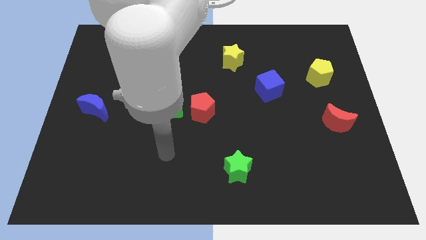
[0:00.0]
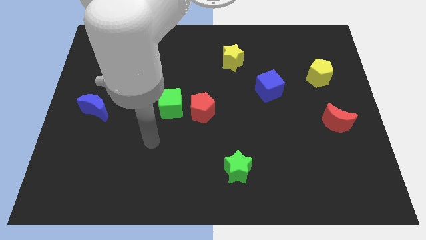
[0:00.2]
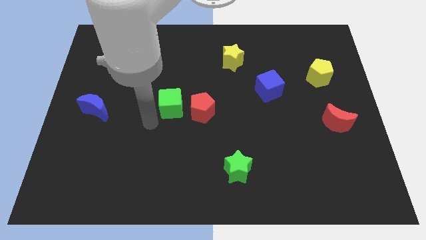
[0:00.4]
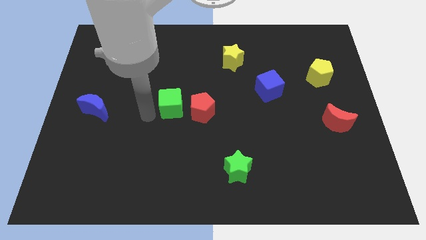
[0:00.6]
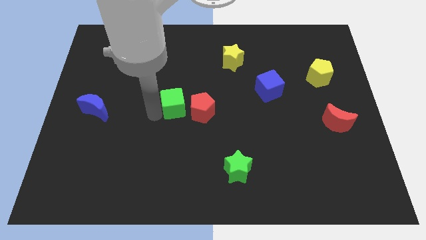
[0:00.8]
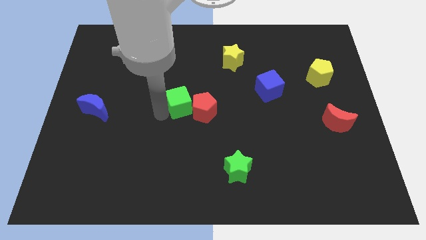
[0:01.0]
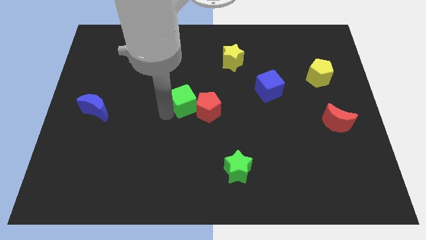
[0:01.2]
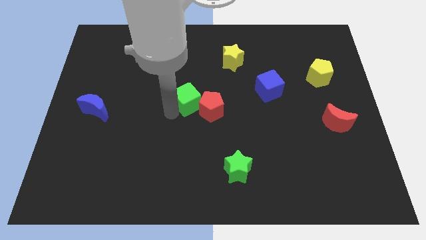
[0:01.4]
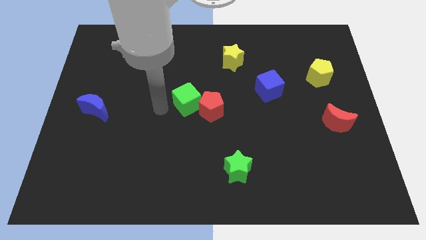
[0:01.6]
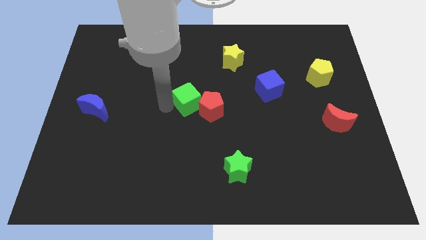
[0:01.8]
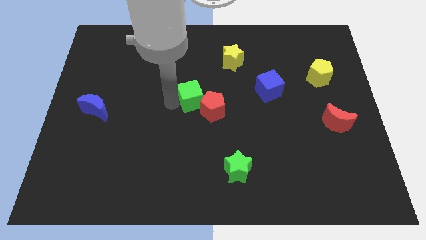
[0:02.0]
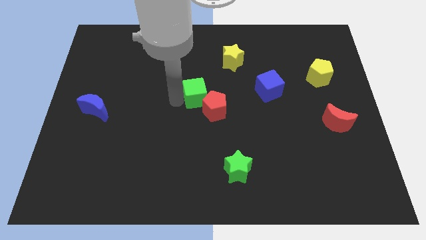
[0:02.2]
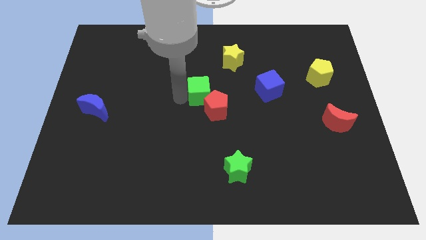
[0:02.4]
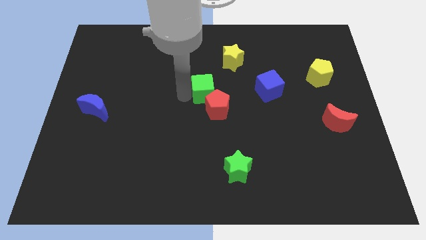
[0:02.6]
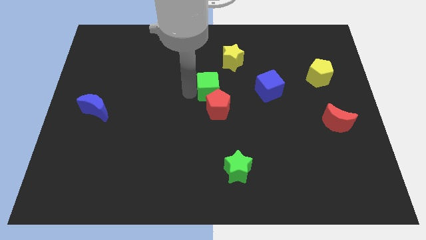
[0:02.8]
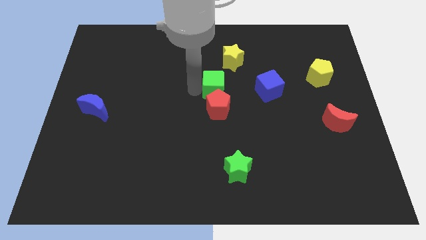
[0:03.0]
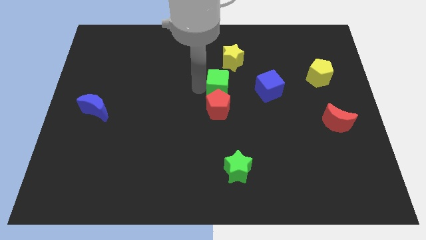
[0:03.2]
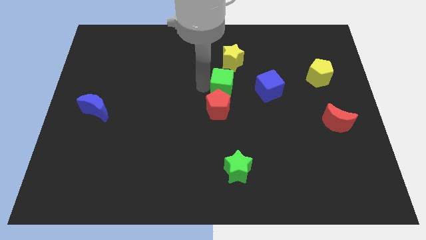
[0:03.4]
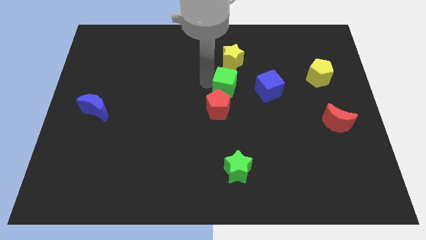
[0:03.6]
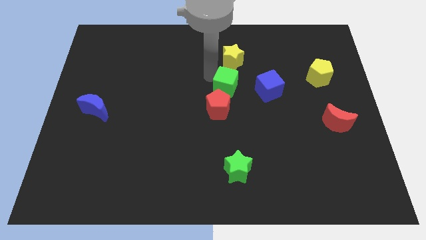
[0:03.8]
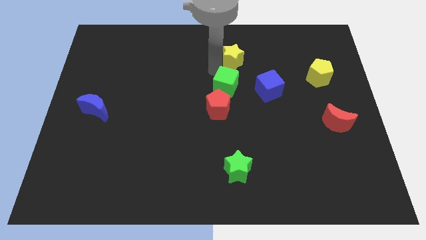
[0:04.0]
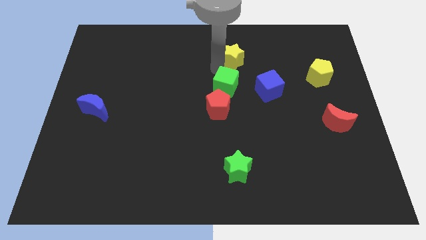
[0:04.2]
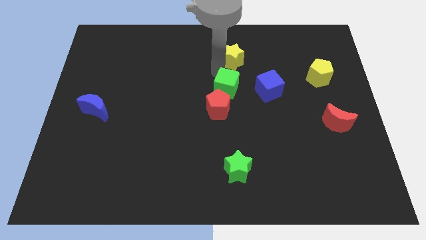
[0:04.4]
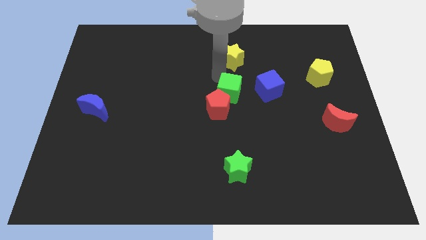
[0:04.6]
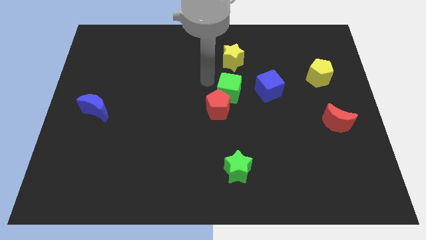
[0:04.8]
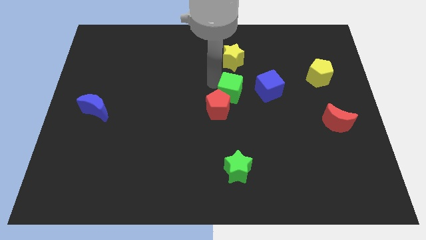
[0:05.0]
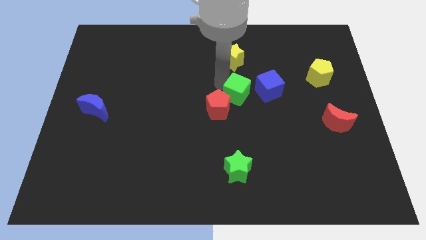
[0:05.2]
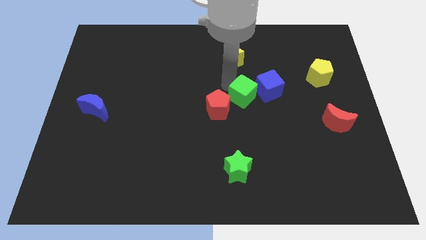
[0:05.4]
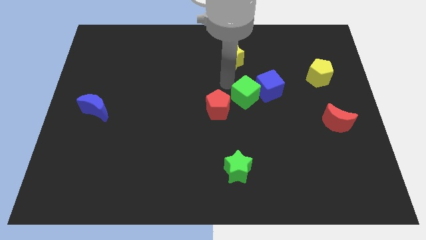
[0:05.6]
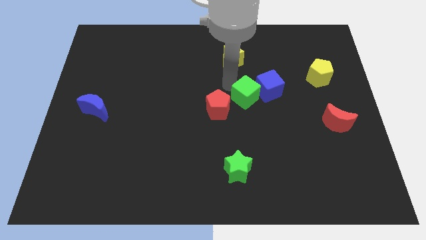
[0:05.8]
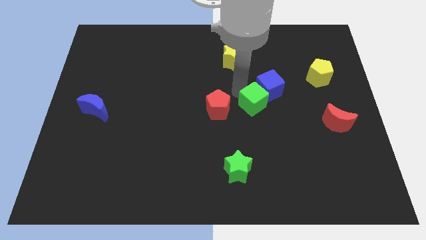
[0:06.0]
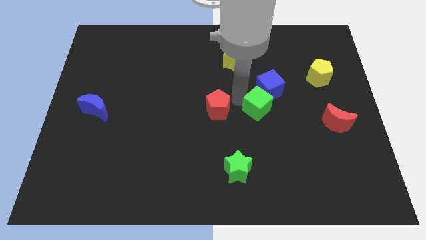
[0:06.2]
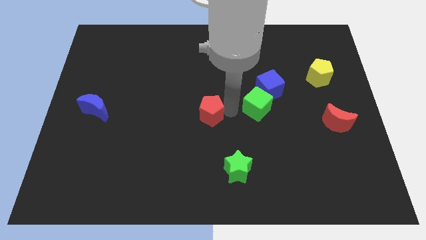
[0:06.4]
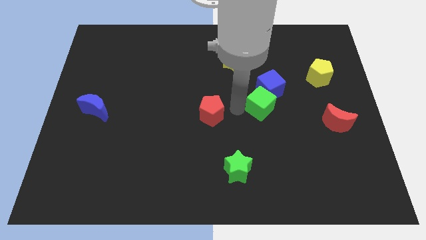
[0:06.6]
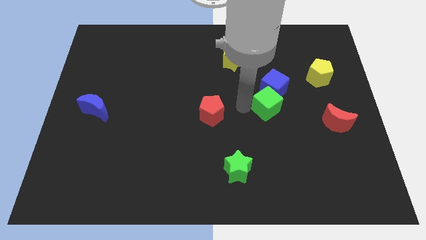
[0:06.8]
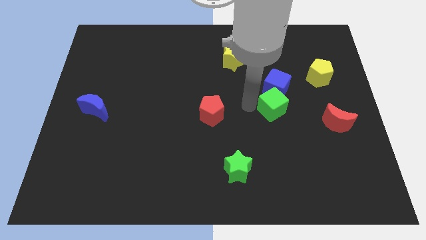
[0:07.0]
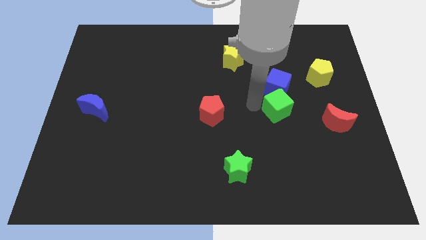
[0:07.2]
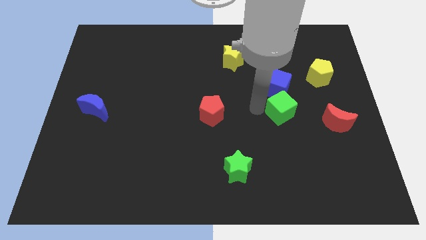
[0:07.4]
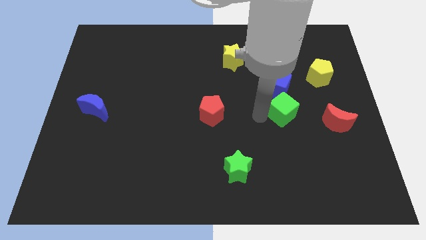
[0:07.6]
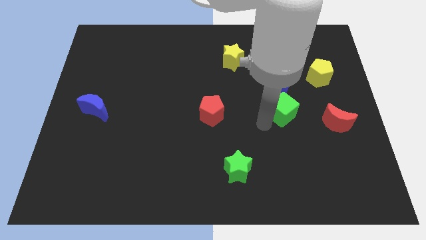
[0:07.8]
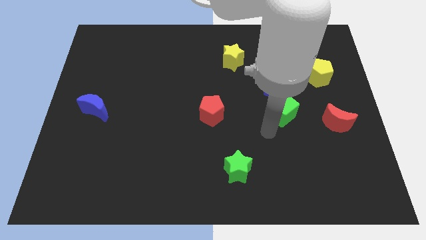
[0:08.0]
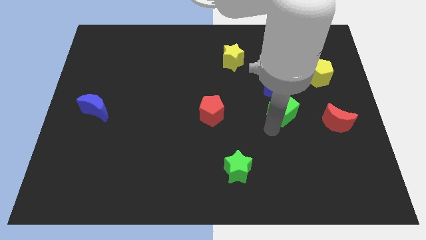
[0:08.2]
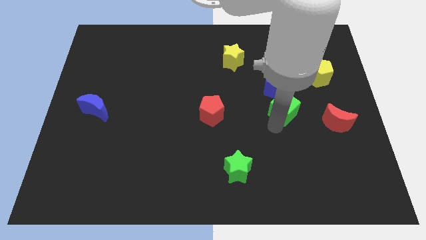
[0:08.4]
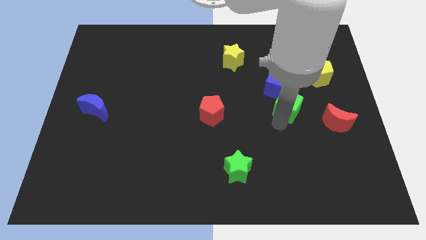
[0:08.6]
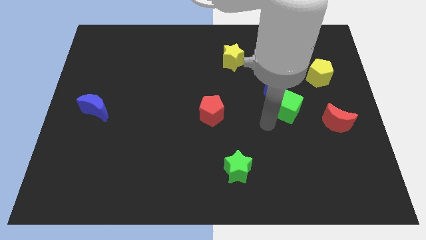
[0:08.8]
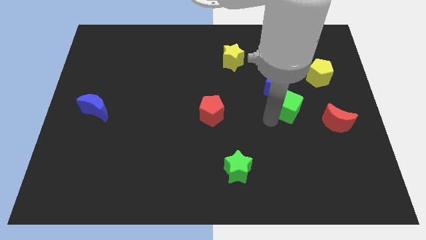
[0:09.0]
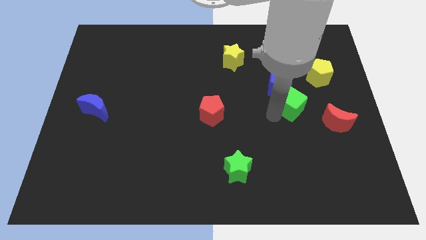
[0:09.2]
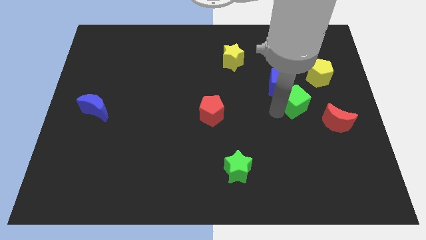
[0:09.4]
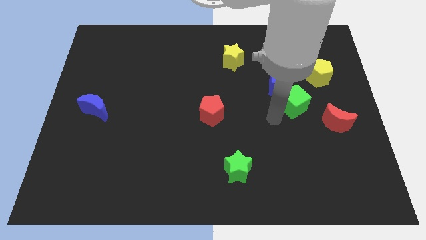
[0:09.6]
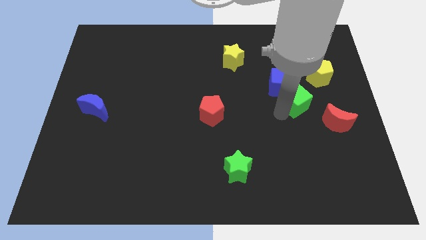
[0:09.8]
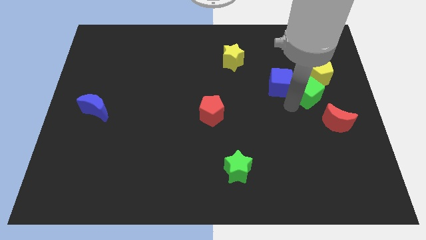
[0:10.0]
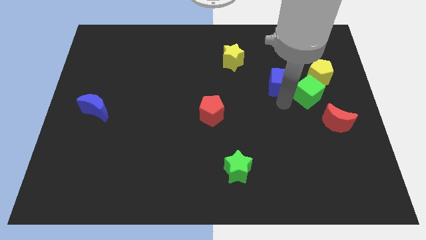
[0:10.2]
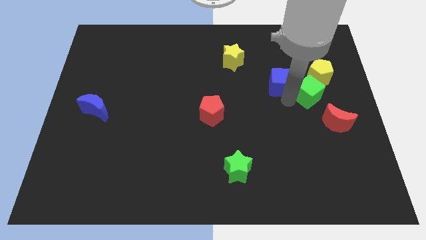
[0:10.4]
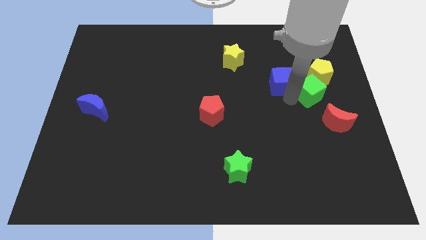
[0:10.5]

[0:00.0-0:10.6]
move the green cube to the top side of the red moon

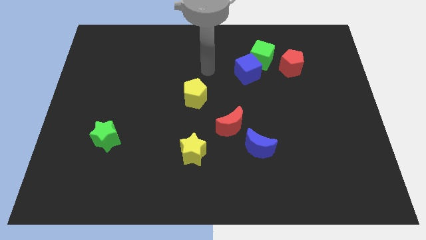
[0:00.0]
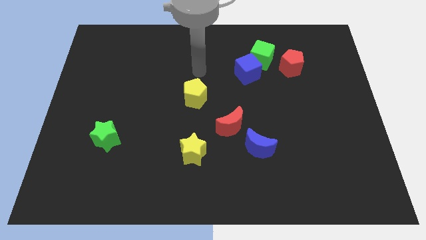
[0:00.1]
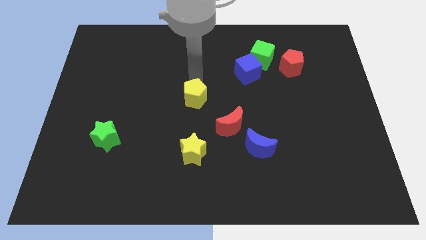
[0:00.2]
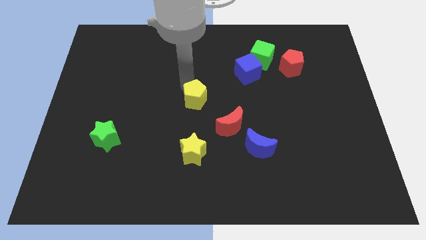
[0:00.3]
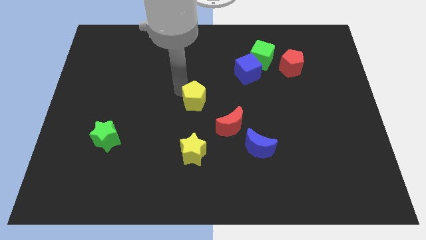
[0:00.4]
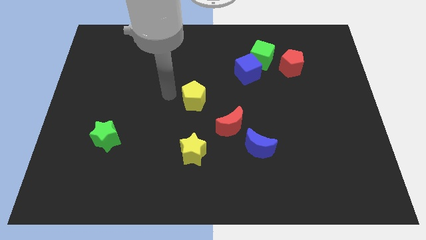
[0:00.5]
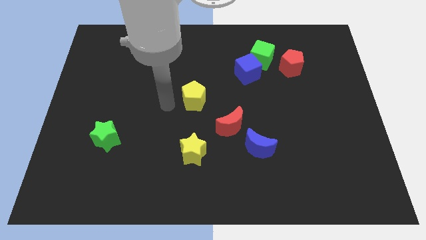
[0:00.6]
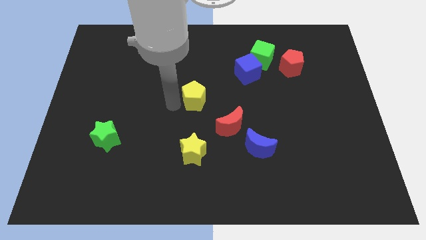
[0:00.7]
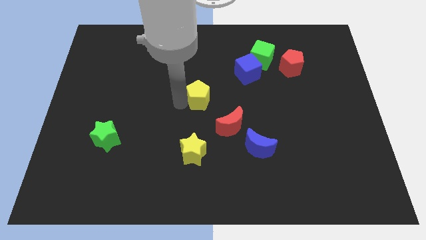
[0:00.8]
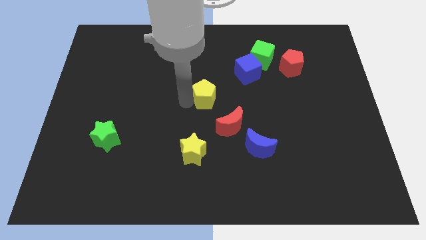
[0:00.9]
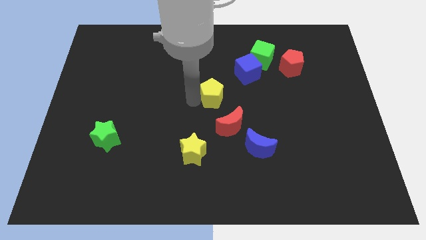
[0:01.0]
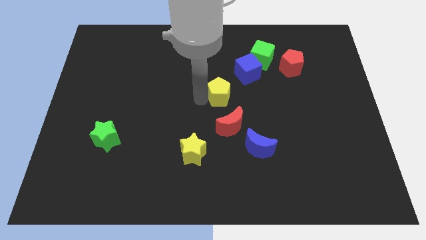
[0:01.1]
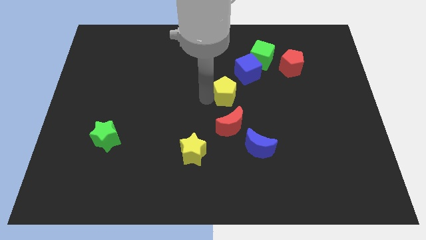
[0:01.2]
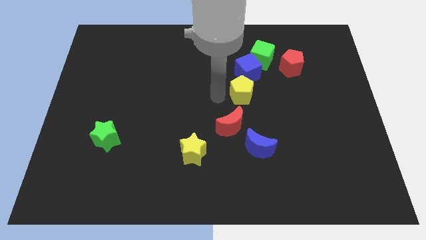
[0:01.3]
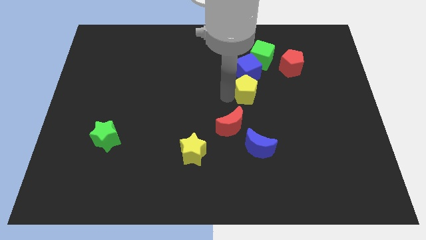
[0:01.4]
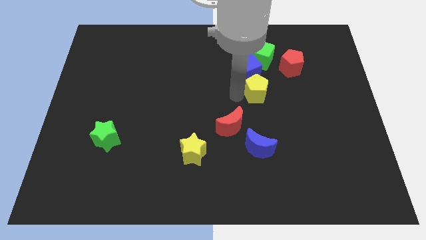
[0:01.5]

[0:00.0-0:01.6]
put the yellow pentagon diagonally down and to the left of the red pentagon

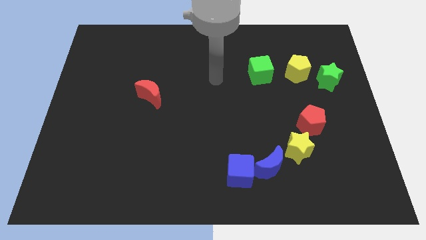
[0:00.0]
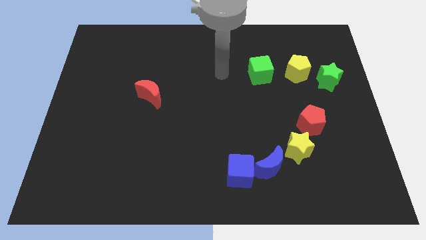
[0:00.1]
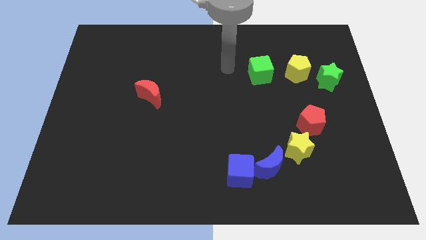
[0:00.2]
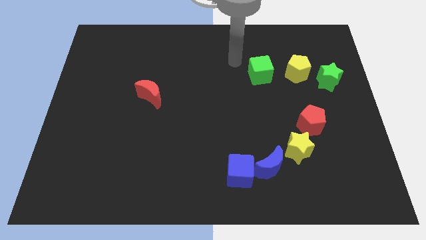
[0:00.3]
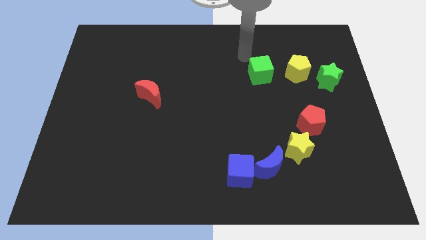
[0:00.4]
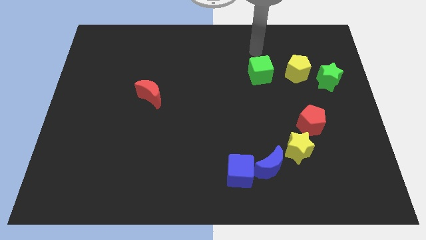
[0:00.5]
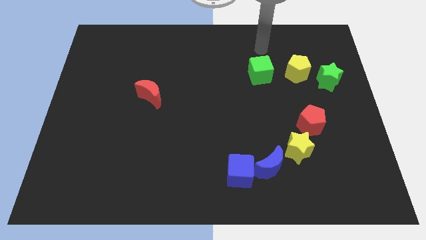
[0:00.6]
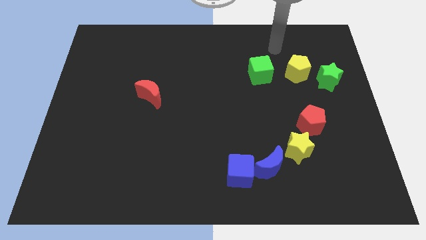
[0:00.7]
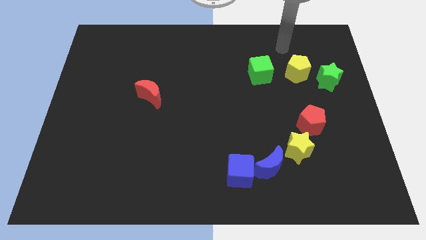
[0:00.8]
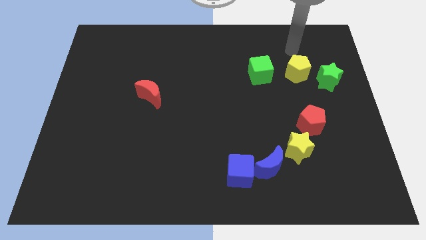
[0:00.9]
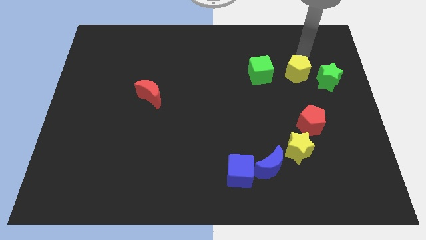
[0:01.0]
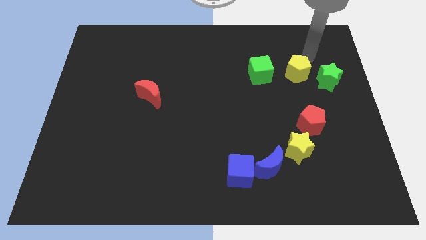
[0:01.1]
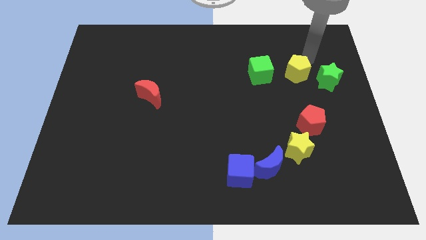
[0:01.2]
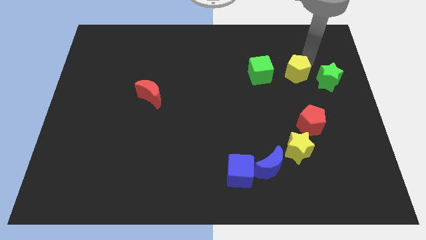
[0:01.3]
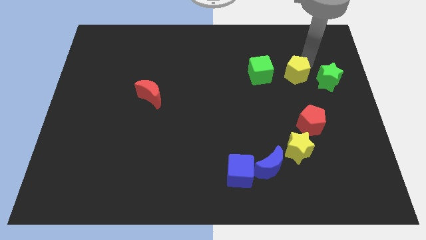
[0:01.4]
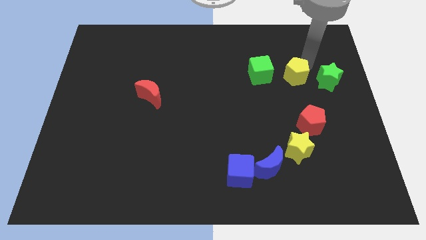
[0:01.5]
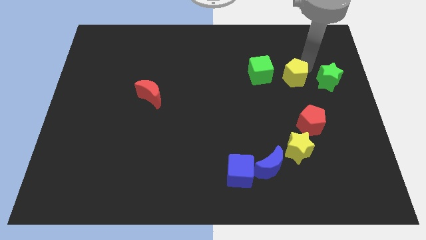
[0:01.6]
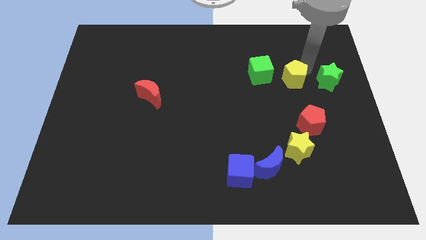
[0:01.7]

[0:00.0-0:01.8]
push the yellow pentagon diagonally down and to the right of the green cube
